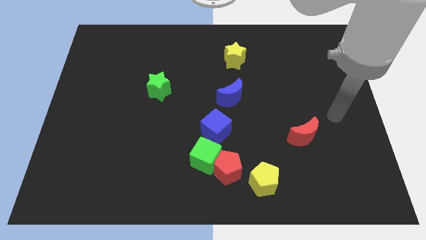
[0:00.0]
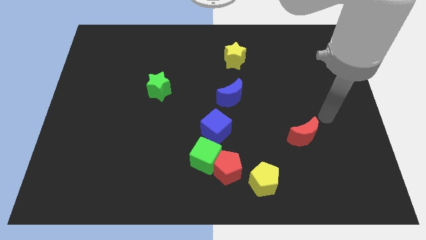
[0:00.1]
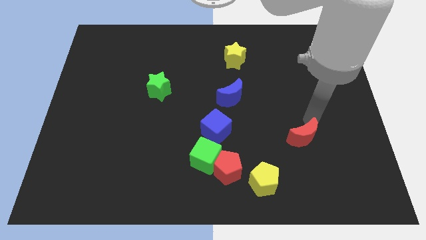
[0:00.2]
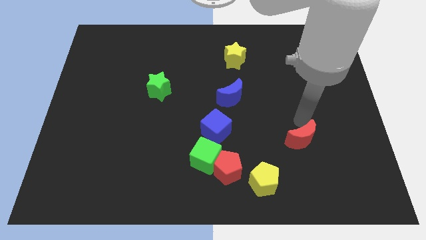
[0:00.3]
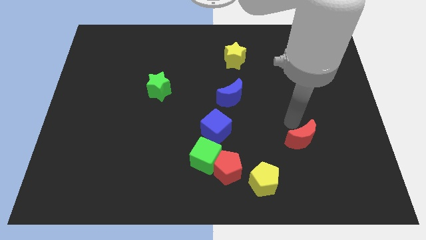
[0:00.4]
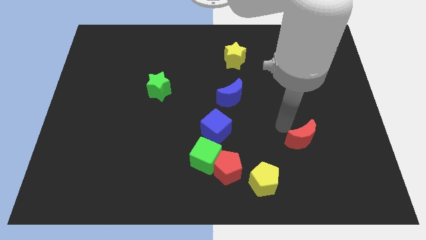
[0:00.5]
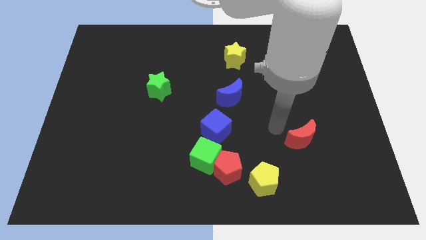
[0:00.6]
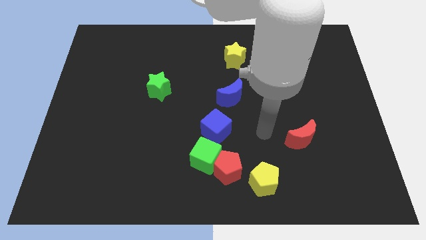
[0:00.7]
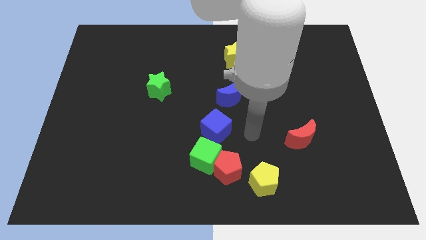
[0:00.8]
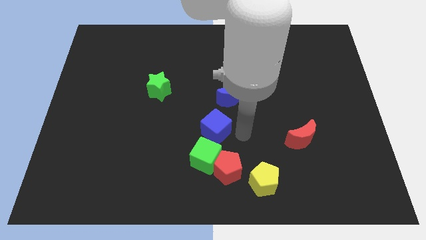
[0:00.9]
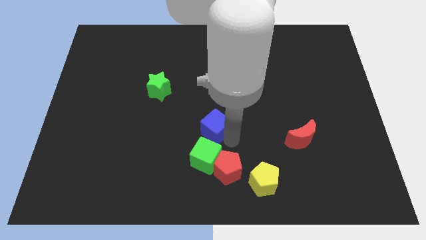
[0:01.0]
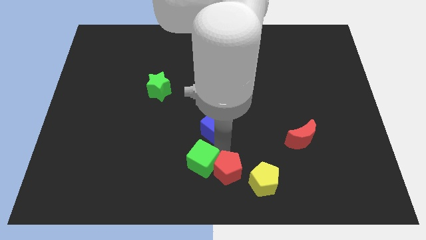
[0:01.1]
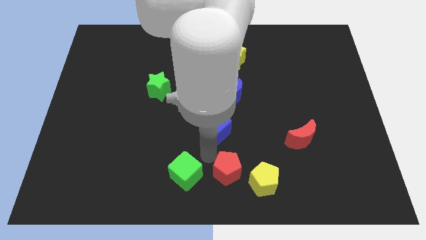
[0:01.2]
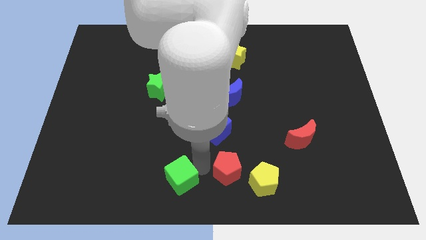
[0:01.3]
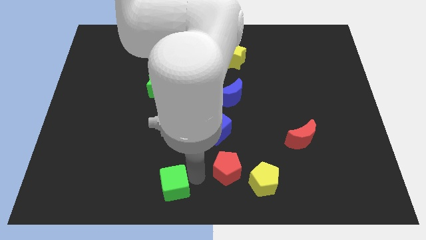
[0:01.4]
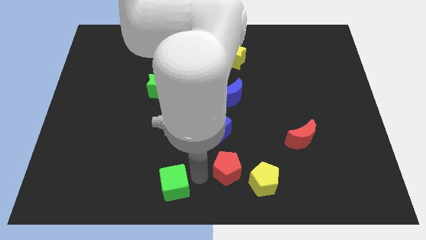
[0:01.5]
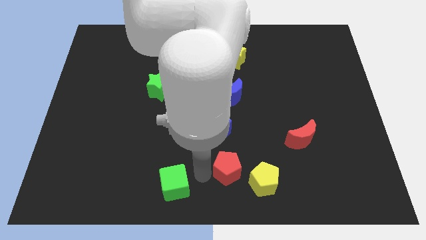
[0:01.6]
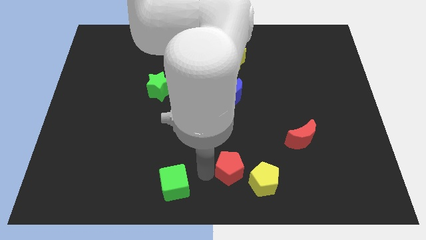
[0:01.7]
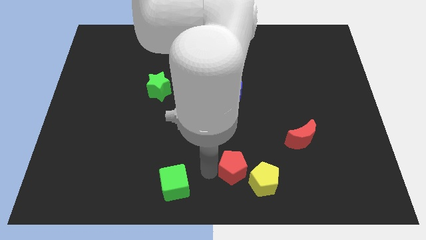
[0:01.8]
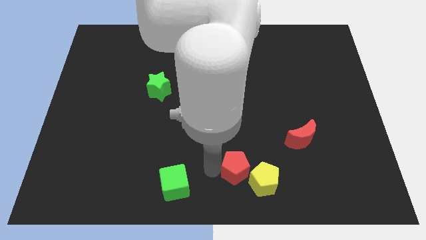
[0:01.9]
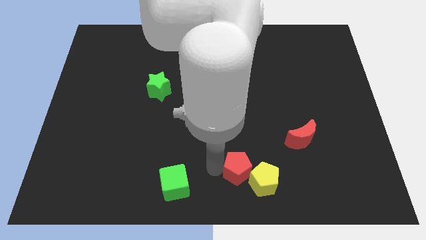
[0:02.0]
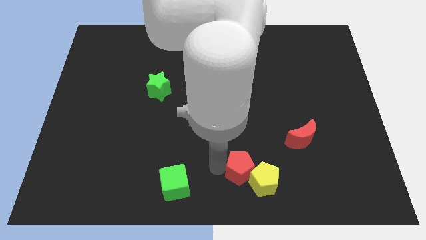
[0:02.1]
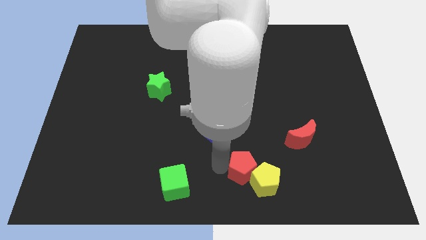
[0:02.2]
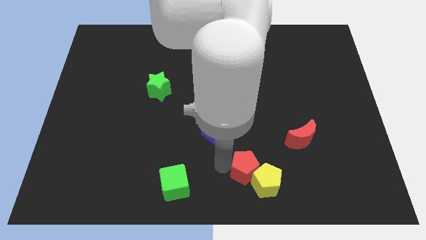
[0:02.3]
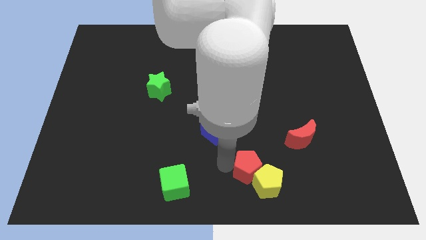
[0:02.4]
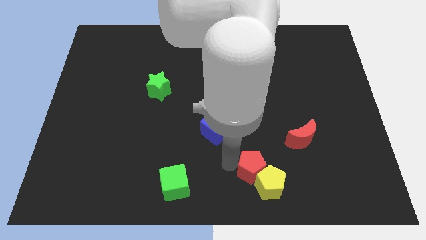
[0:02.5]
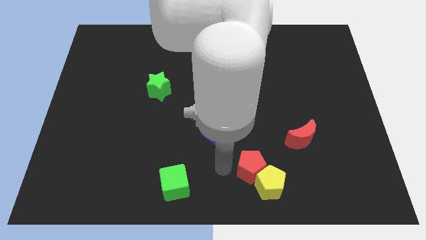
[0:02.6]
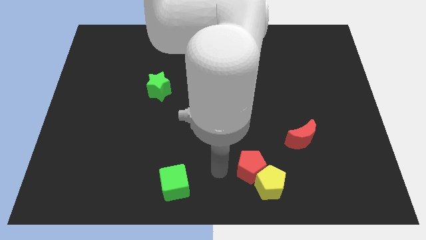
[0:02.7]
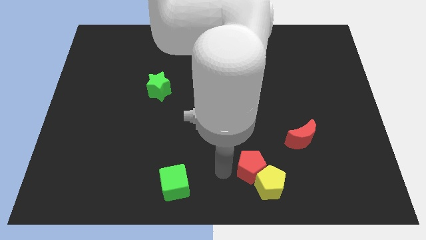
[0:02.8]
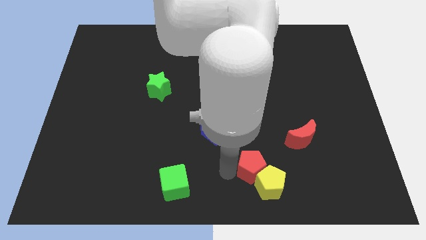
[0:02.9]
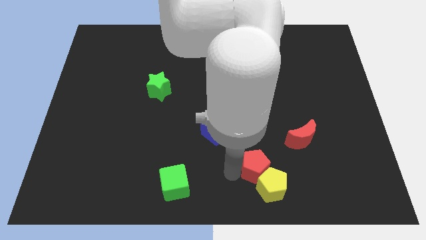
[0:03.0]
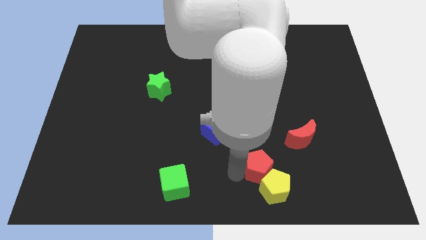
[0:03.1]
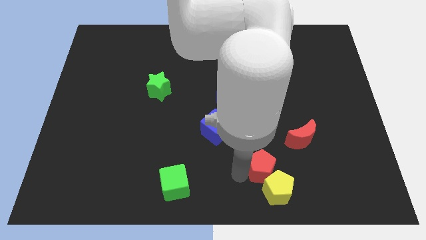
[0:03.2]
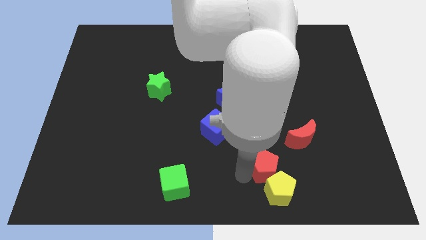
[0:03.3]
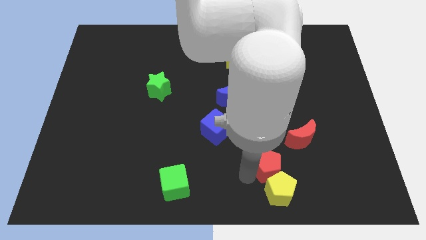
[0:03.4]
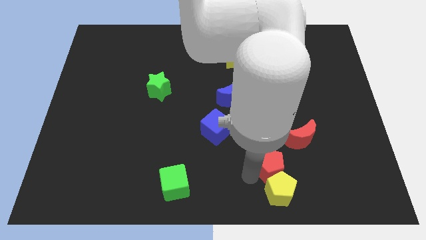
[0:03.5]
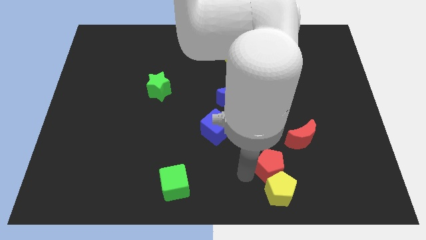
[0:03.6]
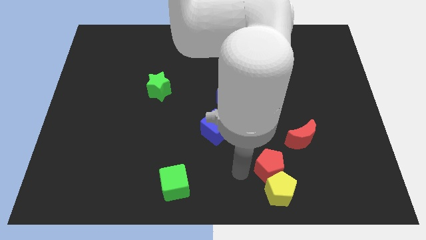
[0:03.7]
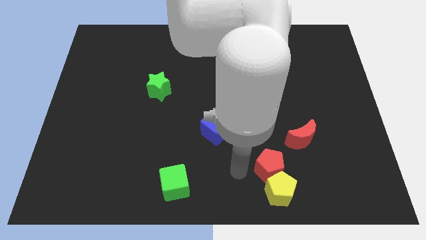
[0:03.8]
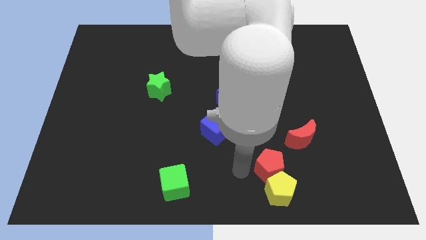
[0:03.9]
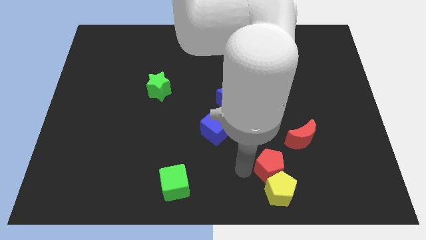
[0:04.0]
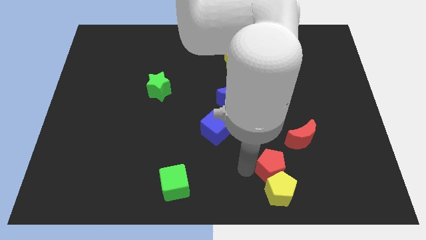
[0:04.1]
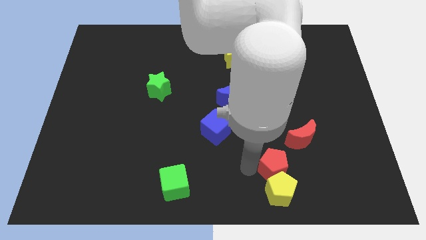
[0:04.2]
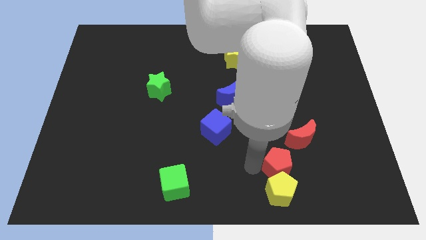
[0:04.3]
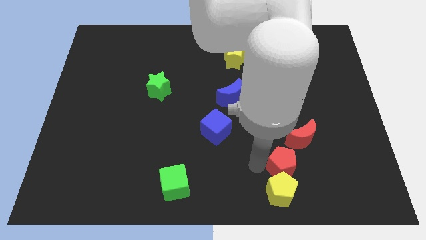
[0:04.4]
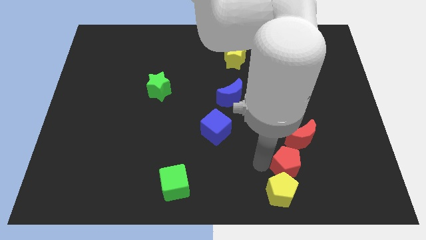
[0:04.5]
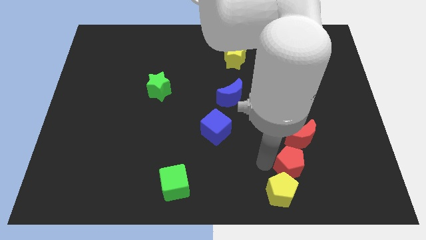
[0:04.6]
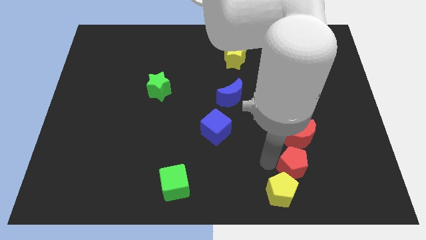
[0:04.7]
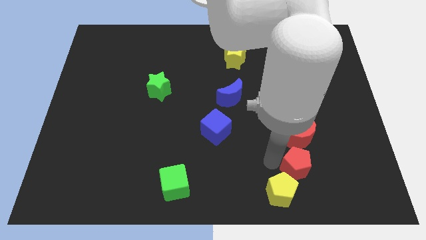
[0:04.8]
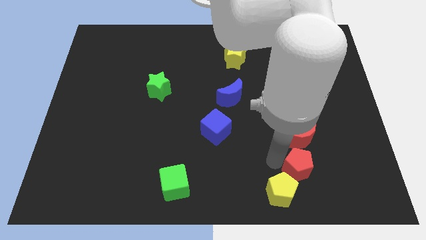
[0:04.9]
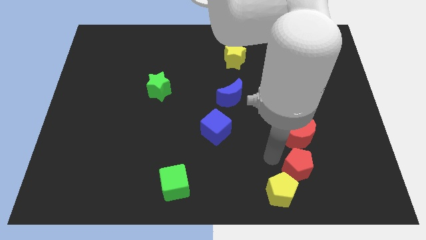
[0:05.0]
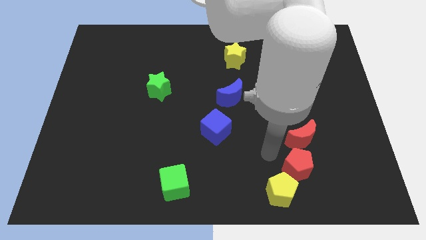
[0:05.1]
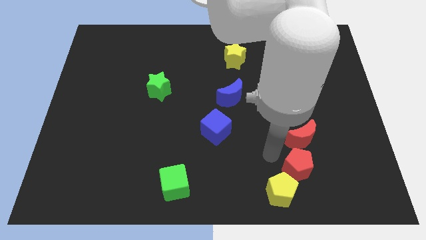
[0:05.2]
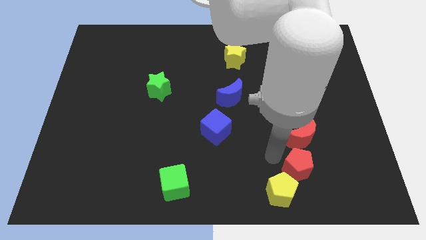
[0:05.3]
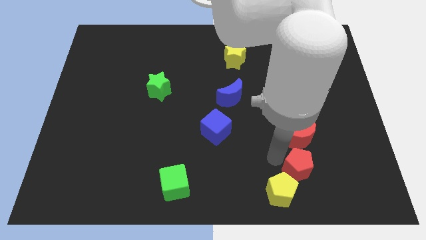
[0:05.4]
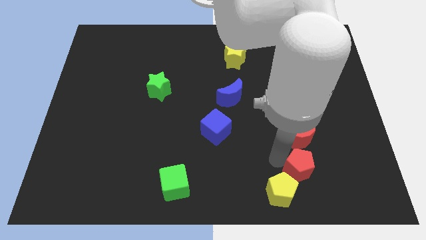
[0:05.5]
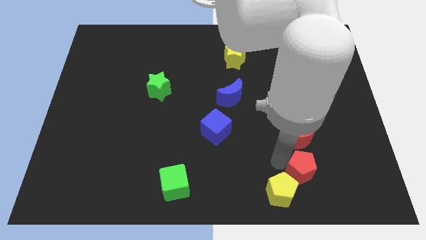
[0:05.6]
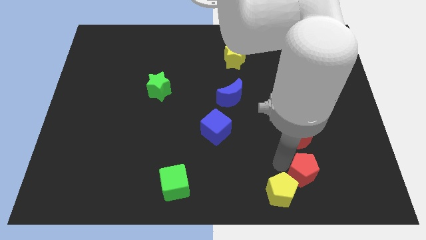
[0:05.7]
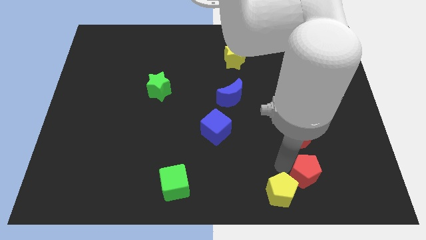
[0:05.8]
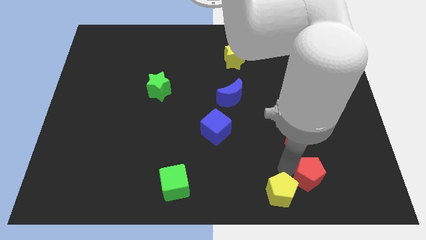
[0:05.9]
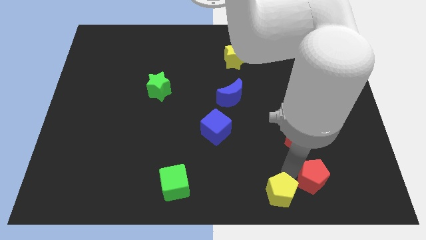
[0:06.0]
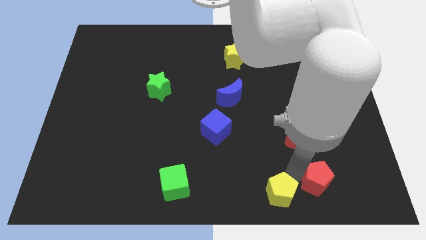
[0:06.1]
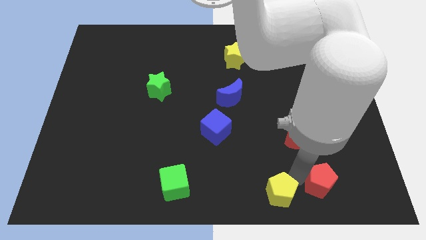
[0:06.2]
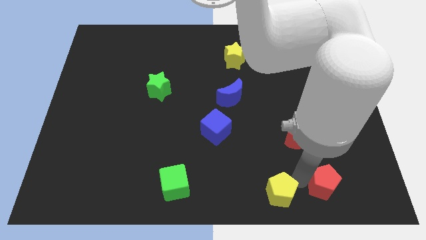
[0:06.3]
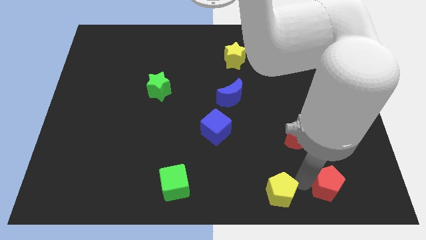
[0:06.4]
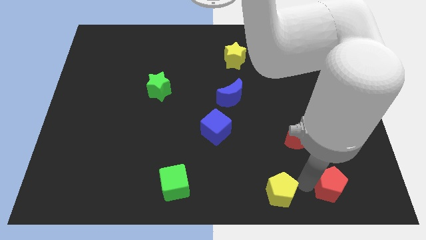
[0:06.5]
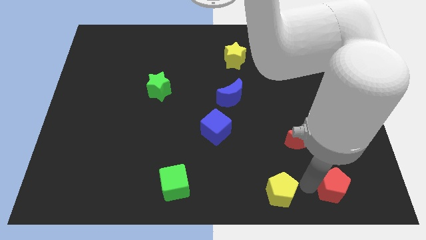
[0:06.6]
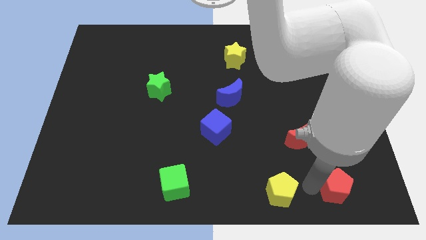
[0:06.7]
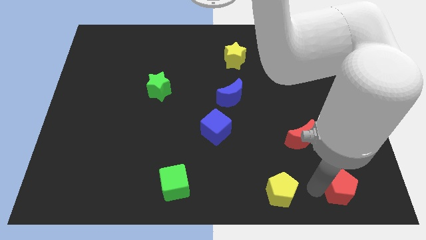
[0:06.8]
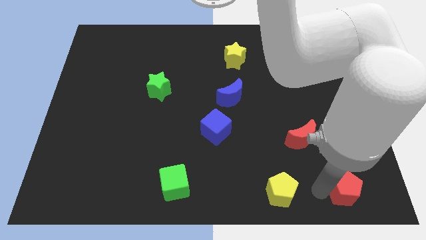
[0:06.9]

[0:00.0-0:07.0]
slide the red pentagon to the bottom right
